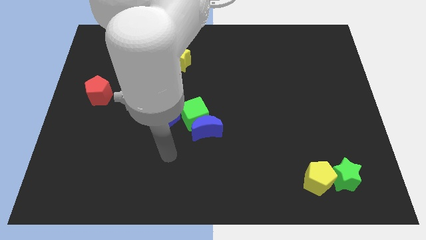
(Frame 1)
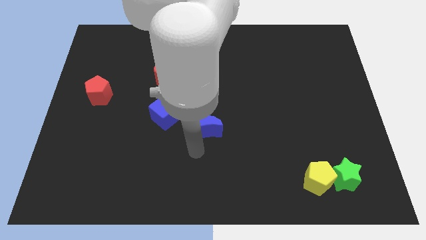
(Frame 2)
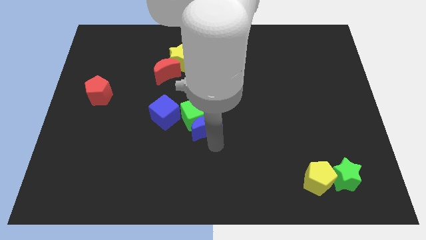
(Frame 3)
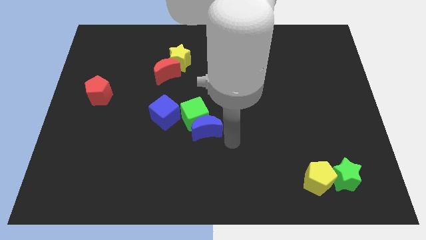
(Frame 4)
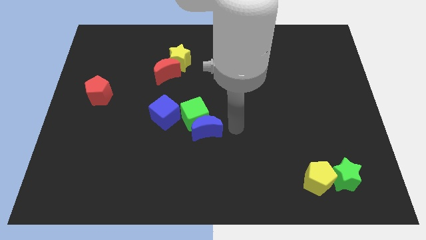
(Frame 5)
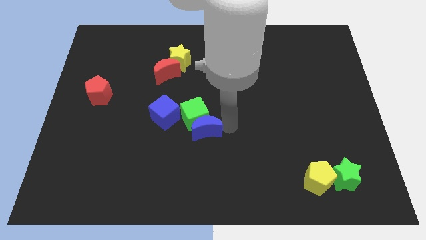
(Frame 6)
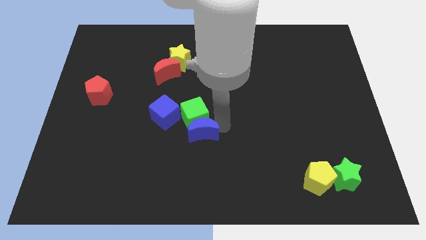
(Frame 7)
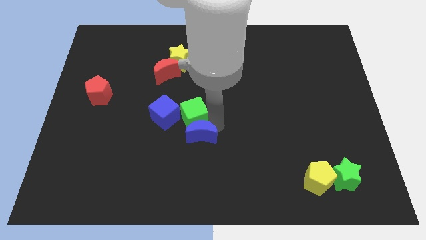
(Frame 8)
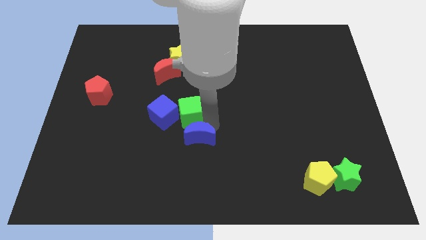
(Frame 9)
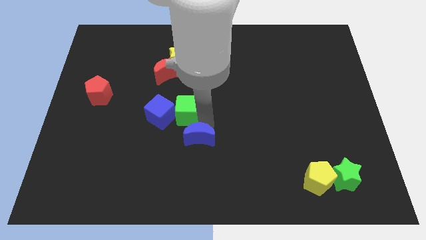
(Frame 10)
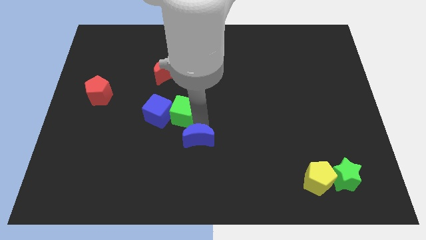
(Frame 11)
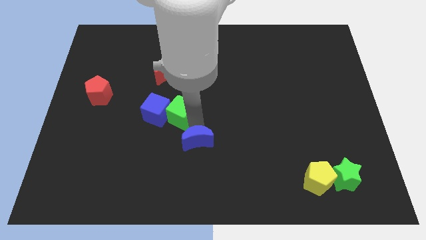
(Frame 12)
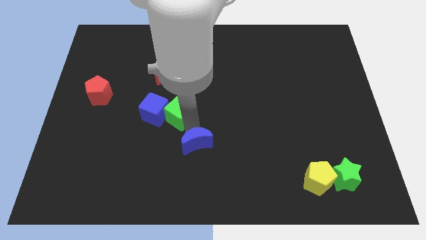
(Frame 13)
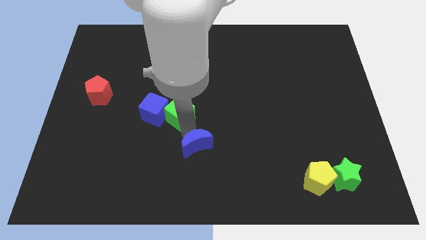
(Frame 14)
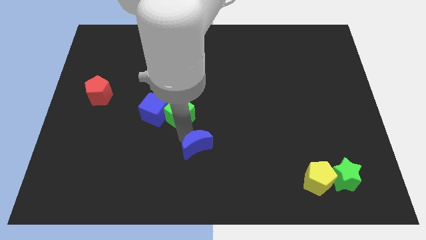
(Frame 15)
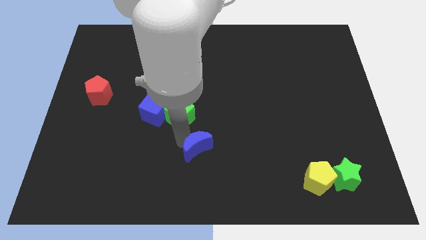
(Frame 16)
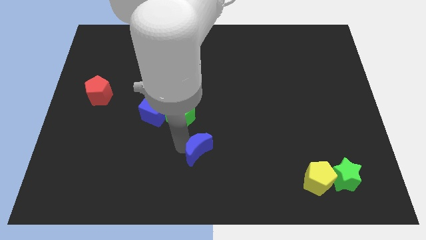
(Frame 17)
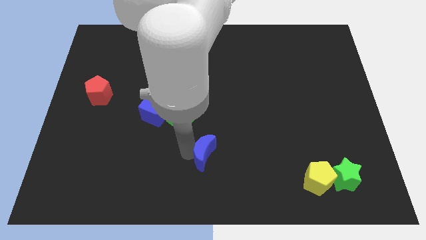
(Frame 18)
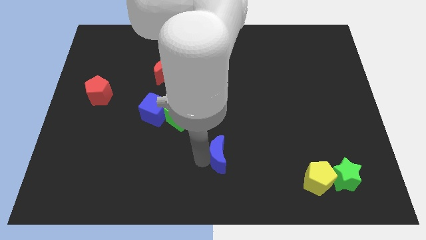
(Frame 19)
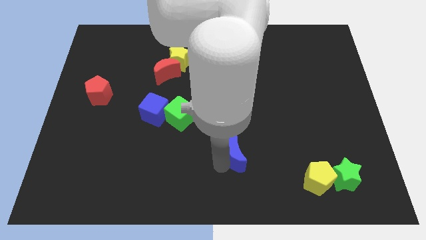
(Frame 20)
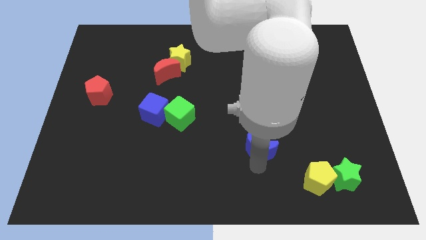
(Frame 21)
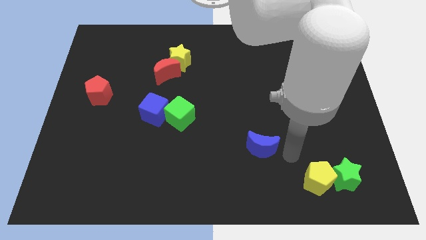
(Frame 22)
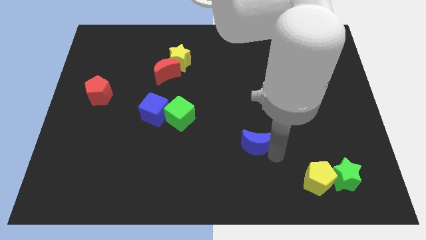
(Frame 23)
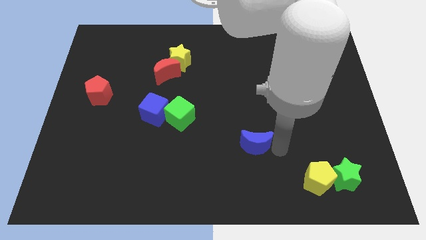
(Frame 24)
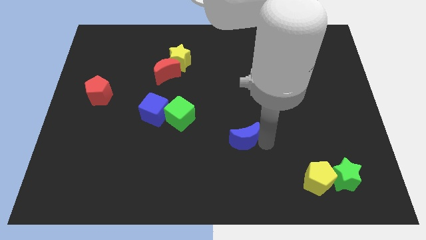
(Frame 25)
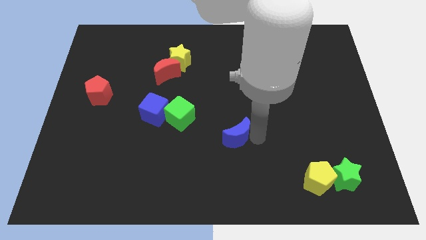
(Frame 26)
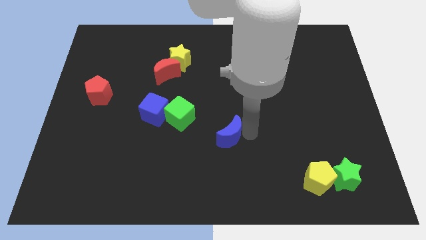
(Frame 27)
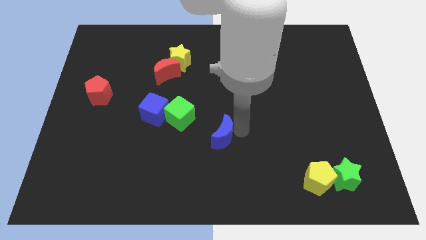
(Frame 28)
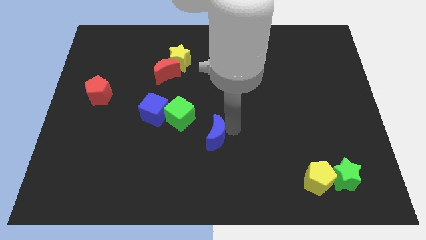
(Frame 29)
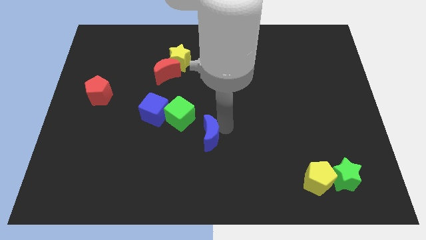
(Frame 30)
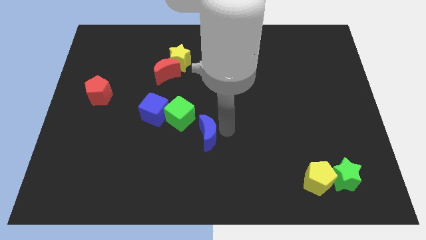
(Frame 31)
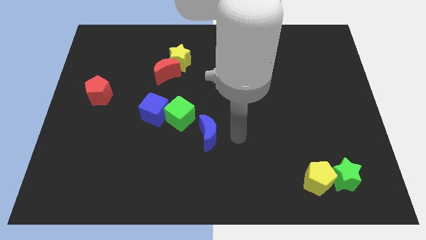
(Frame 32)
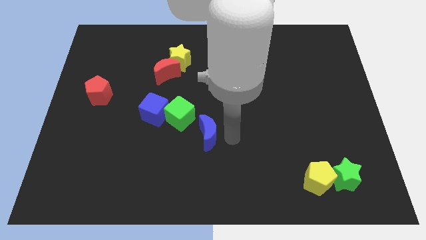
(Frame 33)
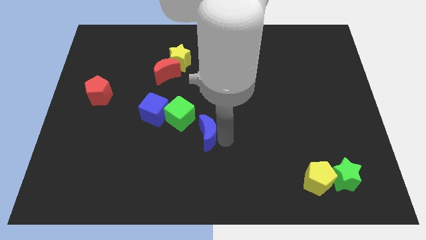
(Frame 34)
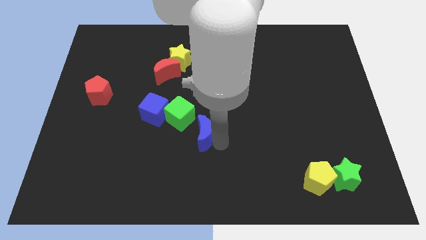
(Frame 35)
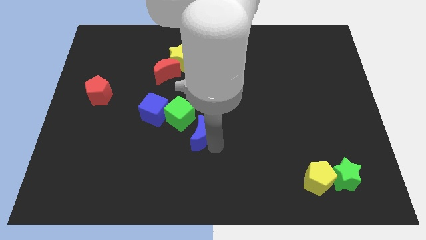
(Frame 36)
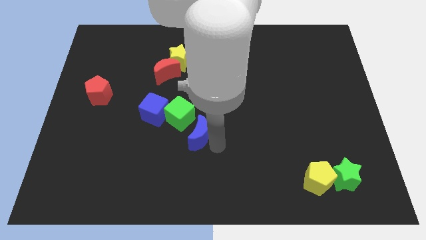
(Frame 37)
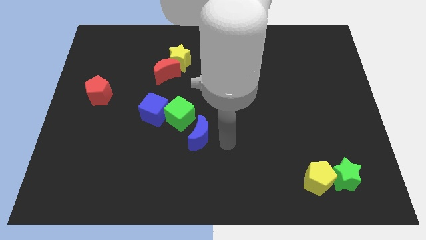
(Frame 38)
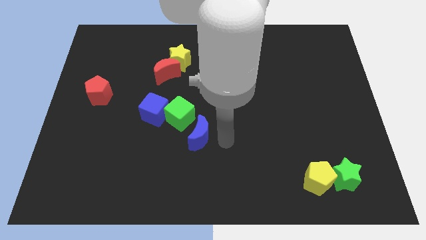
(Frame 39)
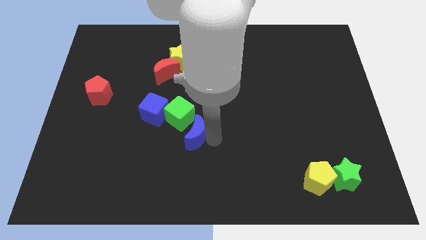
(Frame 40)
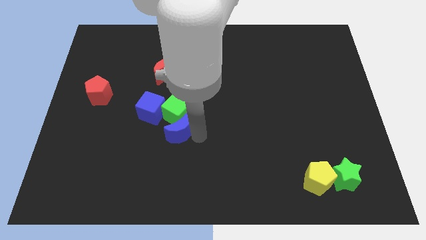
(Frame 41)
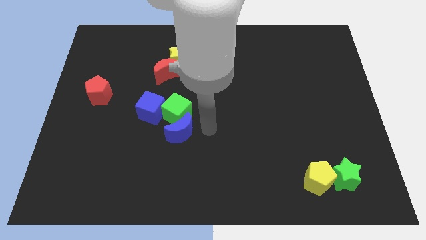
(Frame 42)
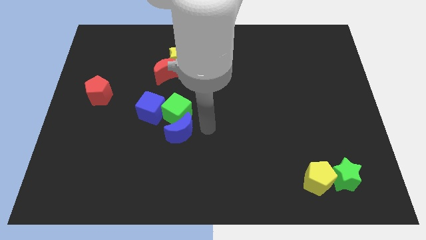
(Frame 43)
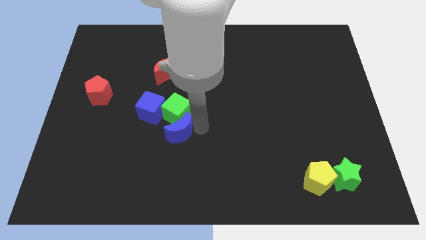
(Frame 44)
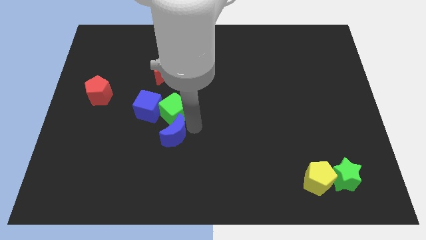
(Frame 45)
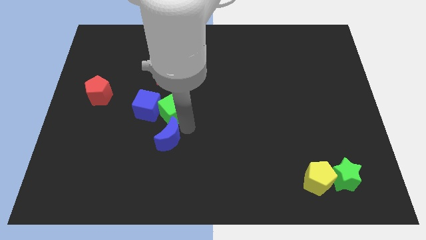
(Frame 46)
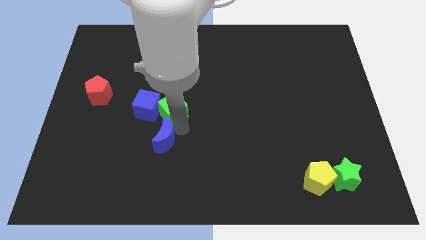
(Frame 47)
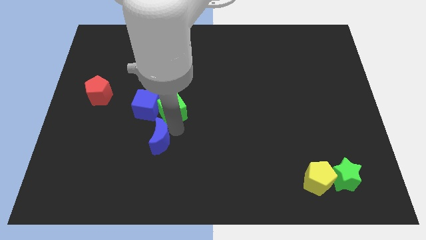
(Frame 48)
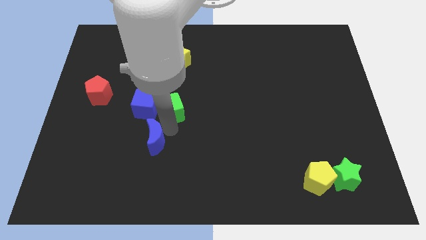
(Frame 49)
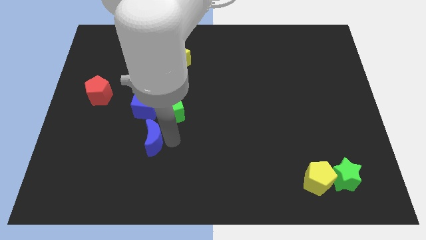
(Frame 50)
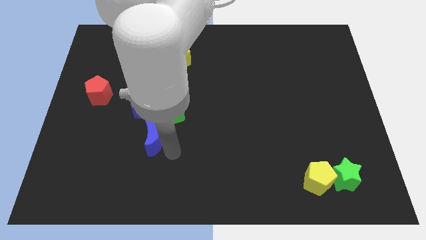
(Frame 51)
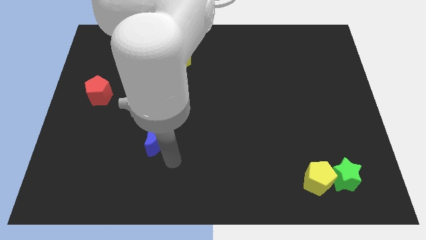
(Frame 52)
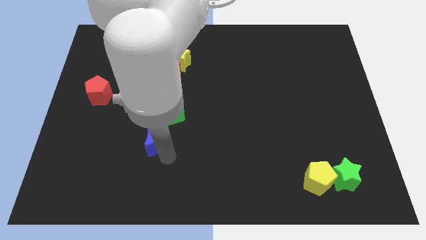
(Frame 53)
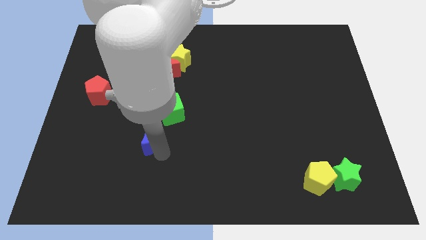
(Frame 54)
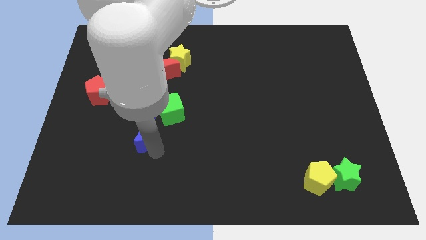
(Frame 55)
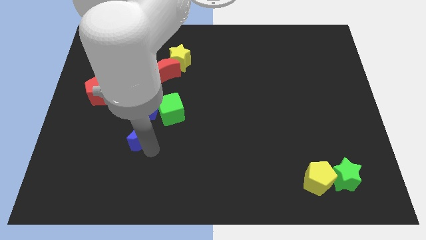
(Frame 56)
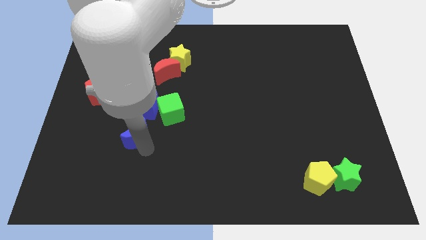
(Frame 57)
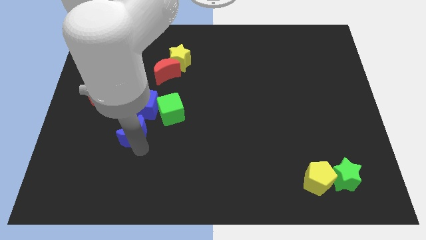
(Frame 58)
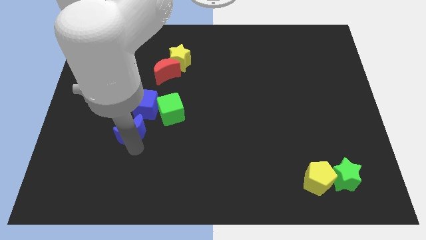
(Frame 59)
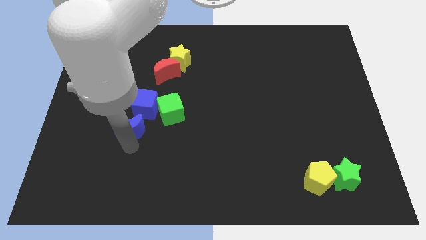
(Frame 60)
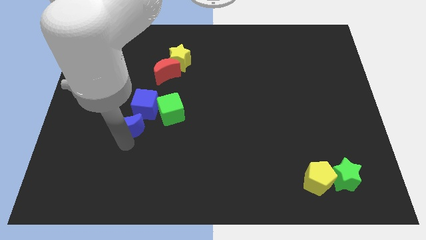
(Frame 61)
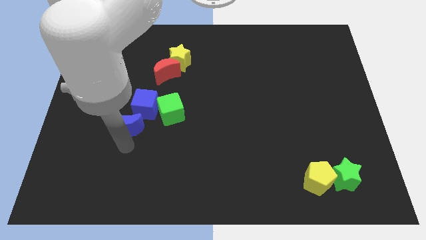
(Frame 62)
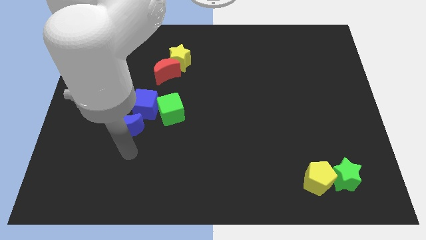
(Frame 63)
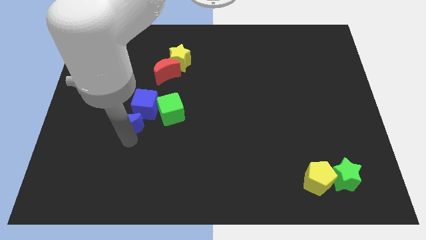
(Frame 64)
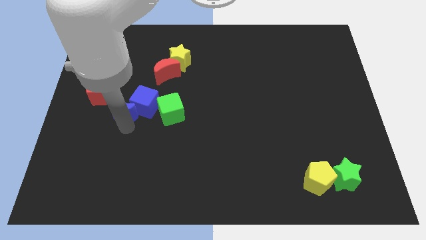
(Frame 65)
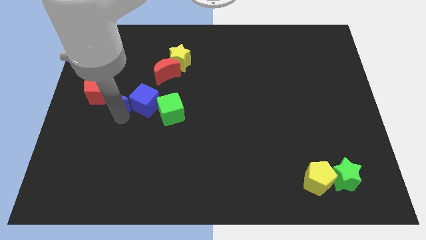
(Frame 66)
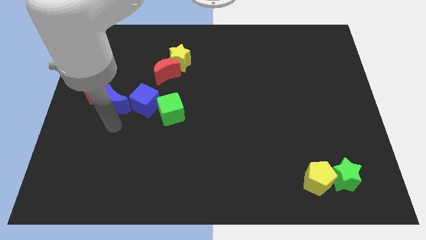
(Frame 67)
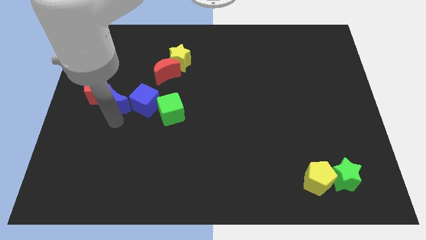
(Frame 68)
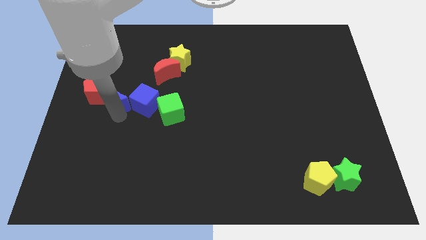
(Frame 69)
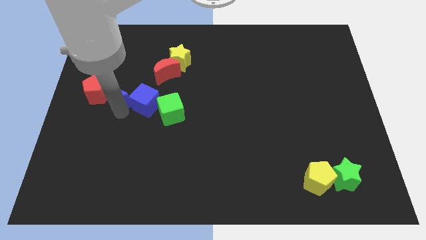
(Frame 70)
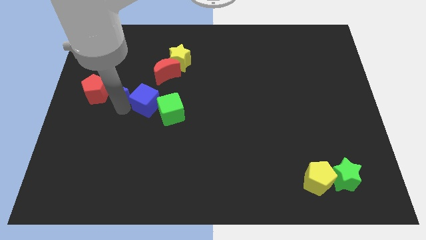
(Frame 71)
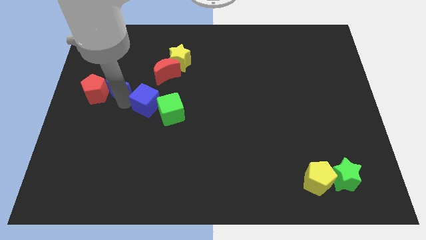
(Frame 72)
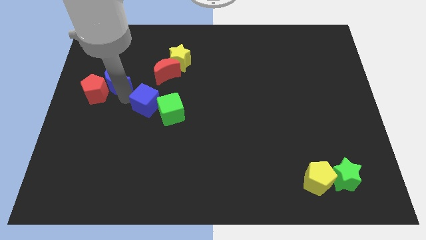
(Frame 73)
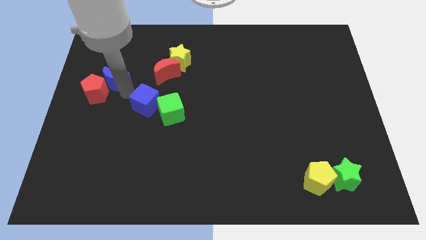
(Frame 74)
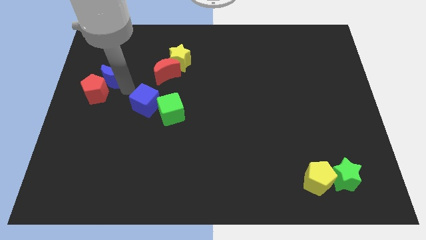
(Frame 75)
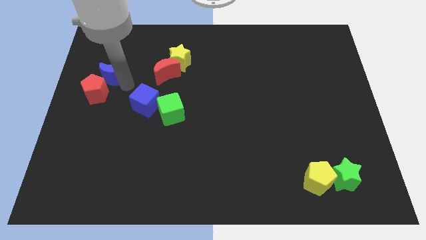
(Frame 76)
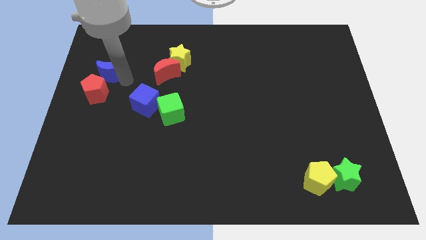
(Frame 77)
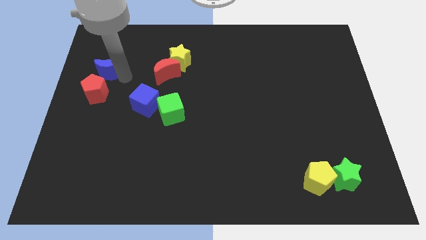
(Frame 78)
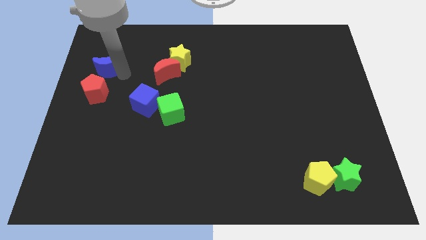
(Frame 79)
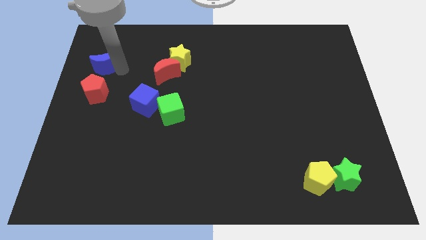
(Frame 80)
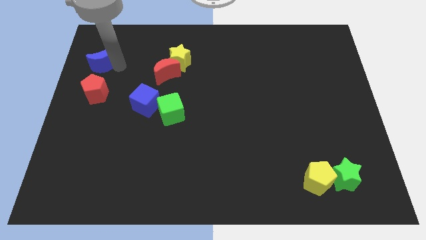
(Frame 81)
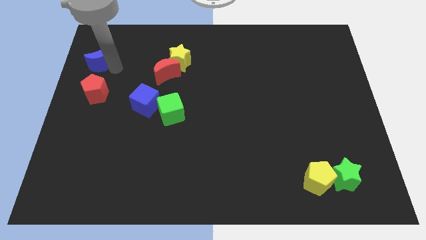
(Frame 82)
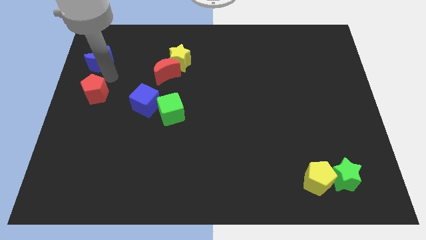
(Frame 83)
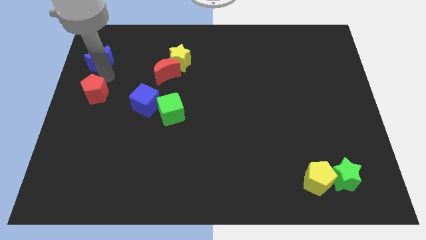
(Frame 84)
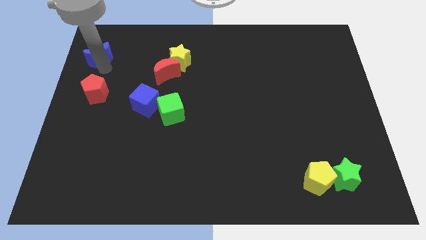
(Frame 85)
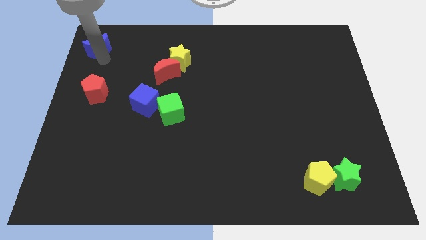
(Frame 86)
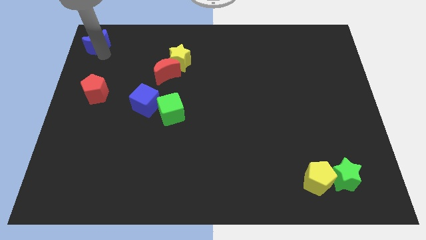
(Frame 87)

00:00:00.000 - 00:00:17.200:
put the blue moon to the top left
